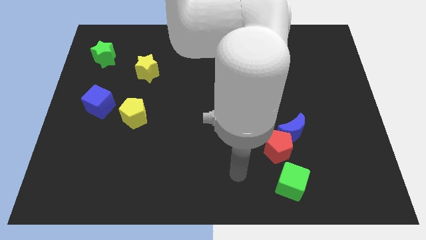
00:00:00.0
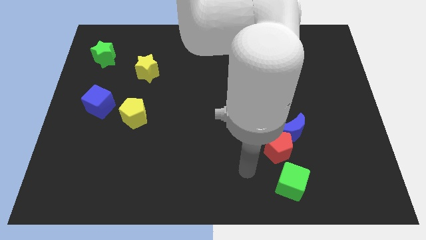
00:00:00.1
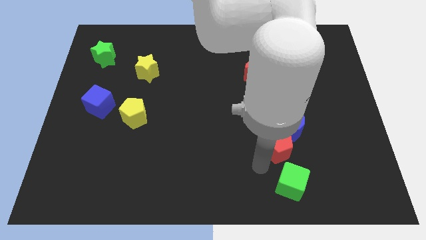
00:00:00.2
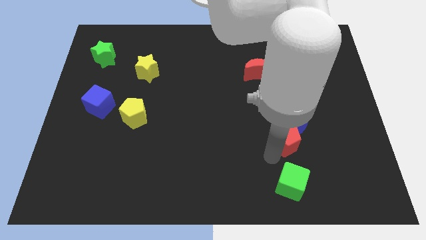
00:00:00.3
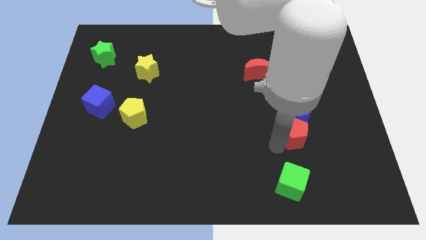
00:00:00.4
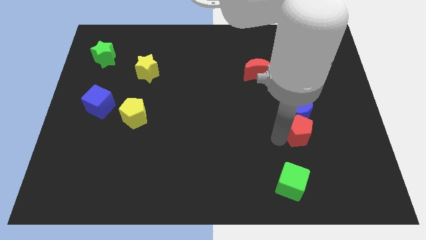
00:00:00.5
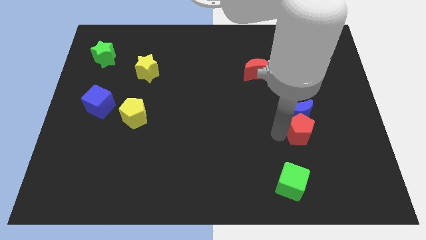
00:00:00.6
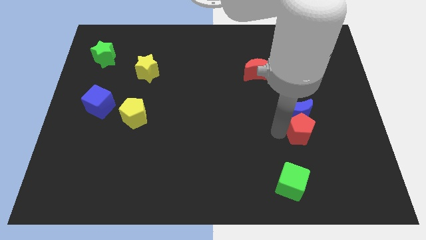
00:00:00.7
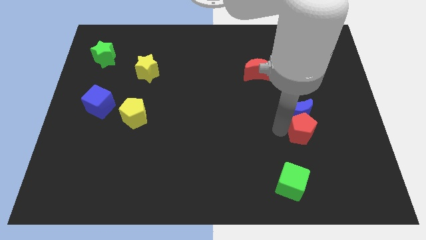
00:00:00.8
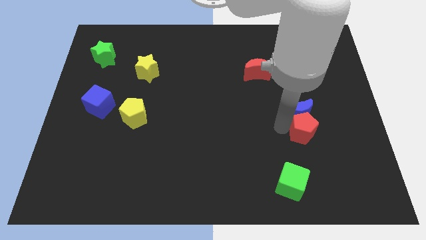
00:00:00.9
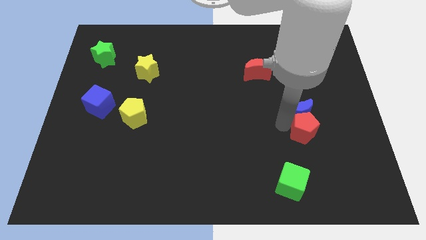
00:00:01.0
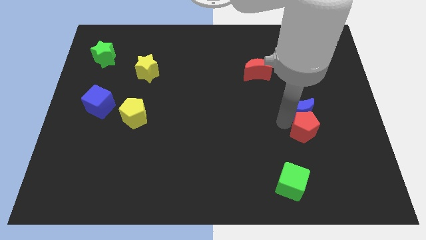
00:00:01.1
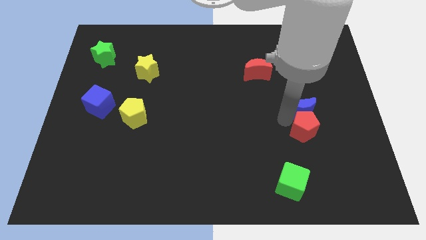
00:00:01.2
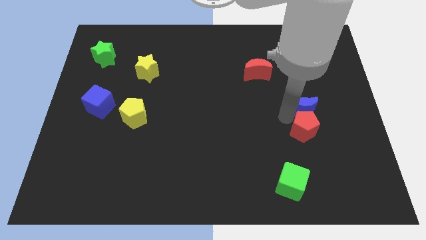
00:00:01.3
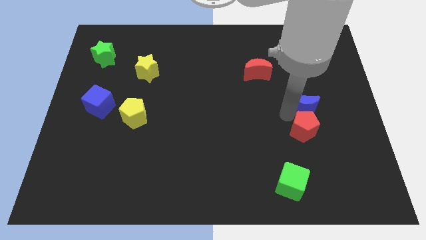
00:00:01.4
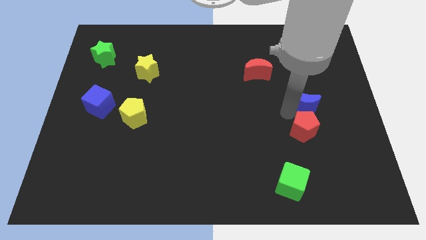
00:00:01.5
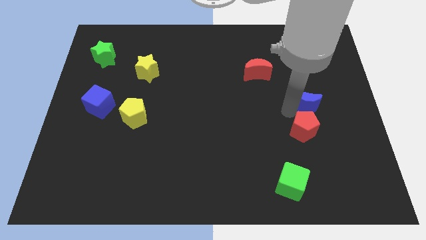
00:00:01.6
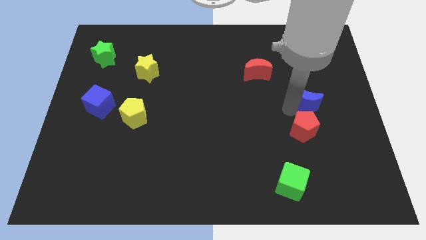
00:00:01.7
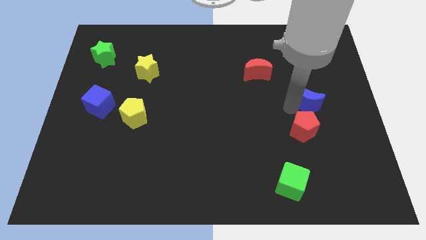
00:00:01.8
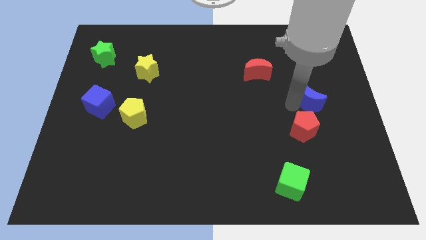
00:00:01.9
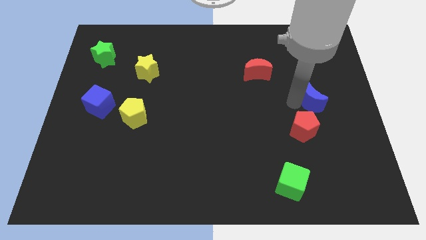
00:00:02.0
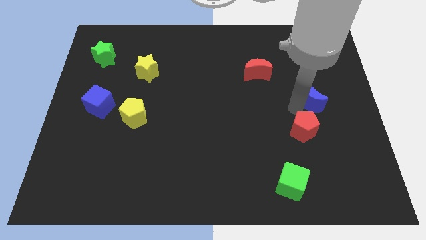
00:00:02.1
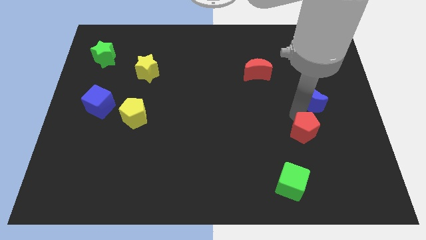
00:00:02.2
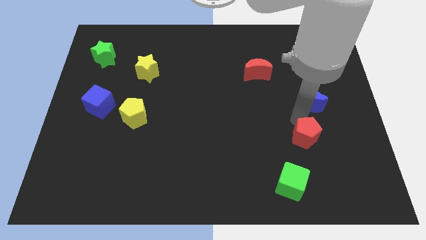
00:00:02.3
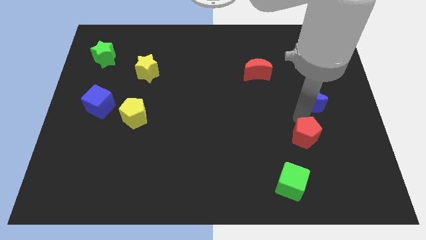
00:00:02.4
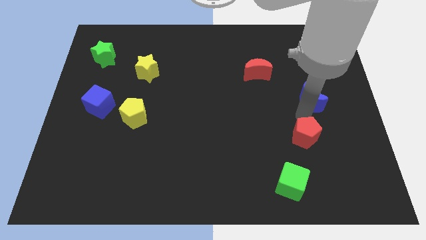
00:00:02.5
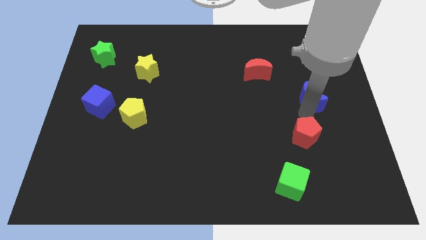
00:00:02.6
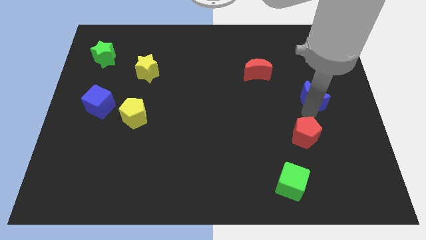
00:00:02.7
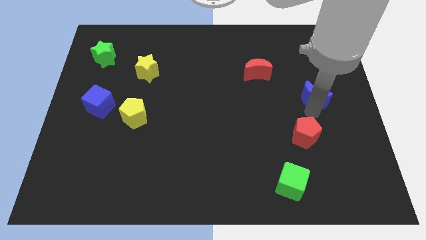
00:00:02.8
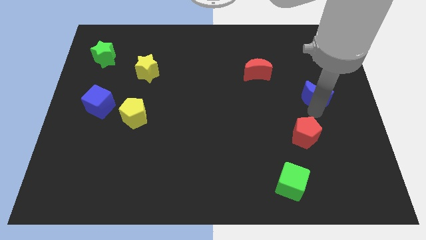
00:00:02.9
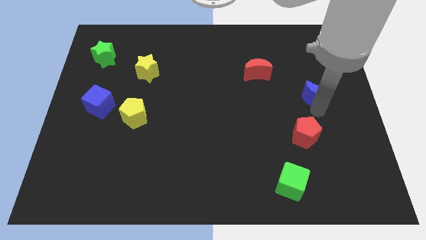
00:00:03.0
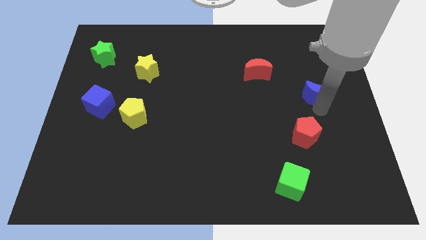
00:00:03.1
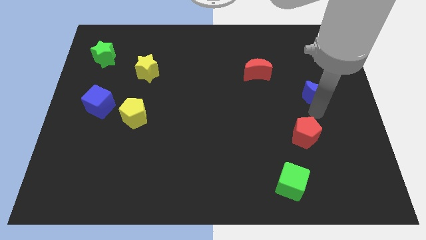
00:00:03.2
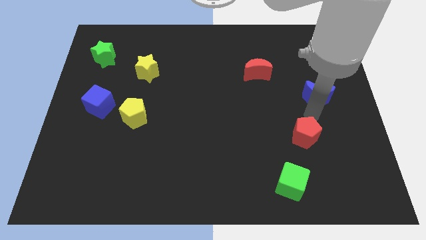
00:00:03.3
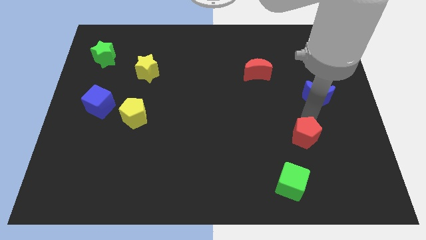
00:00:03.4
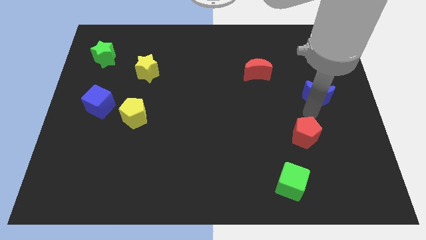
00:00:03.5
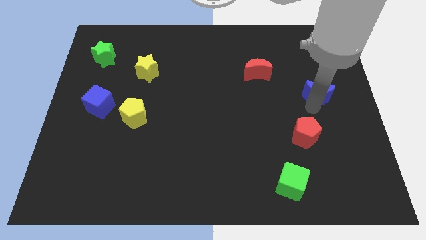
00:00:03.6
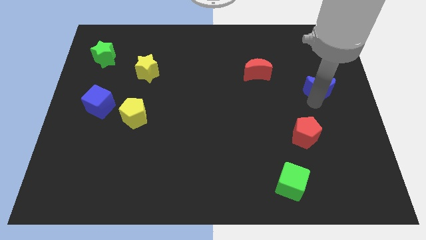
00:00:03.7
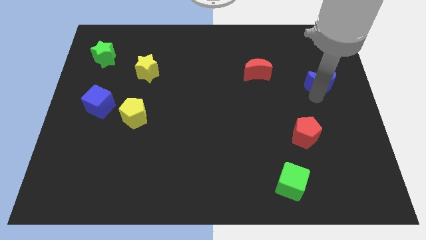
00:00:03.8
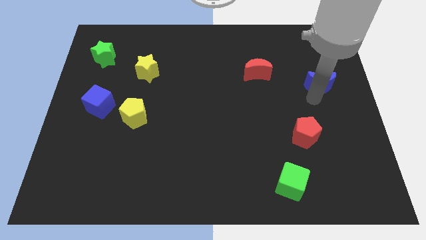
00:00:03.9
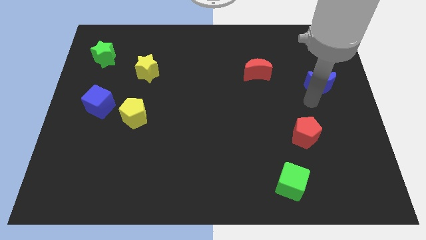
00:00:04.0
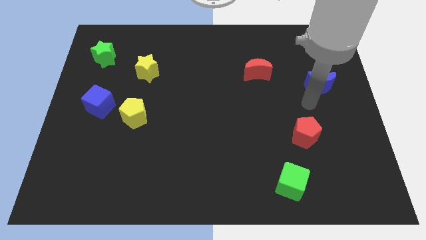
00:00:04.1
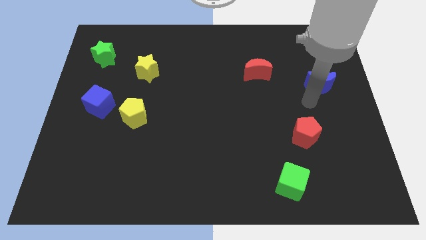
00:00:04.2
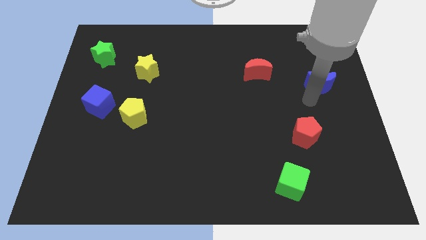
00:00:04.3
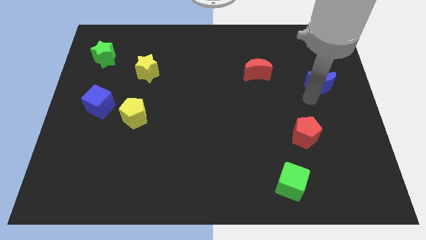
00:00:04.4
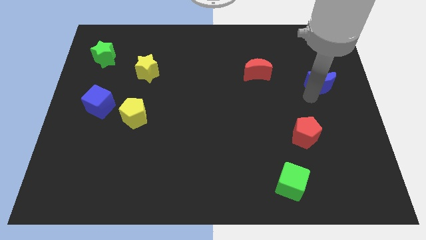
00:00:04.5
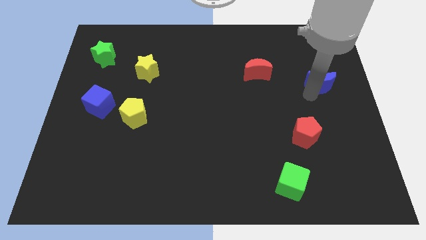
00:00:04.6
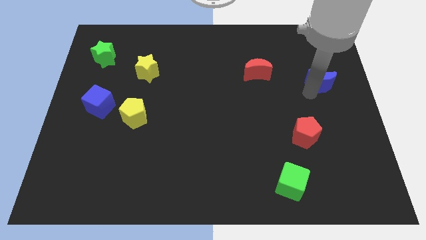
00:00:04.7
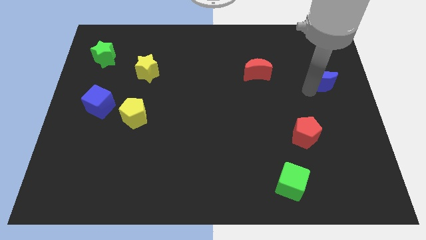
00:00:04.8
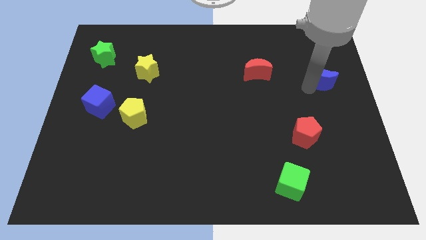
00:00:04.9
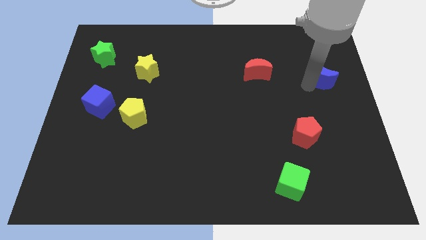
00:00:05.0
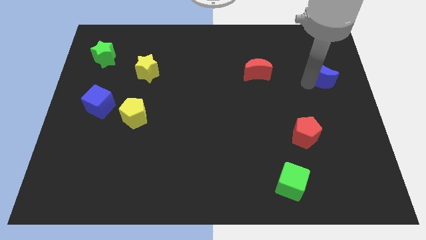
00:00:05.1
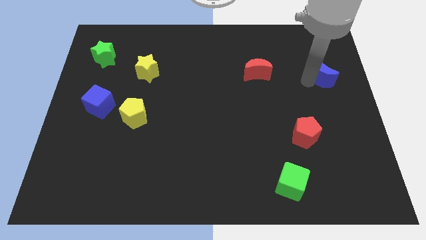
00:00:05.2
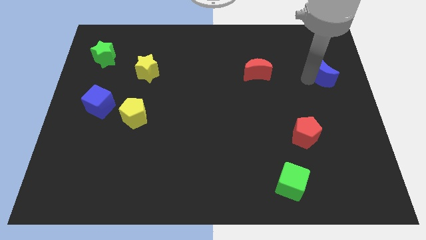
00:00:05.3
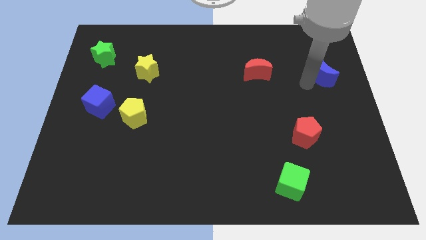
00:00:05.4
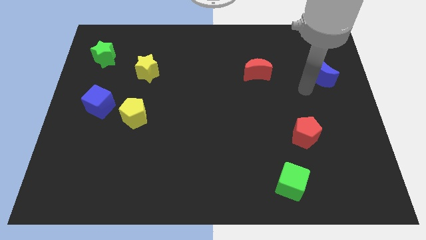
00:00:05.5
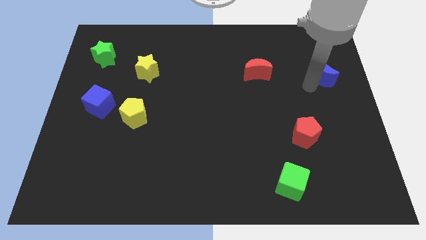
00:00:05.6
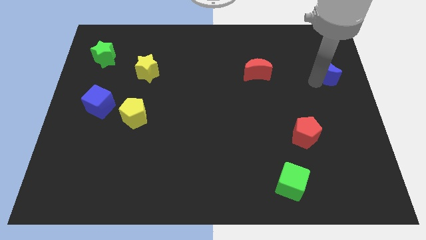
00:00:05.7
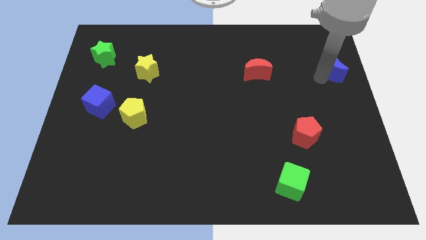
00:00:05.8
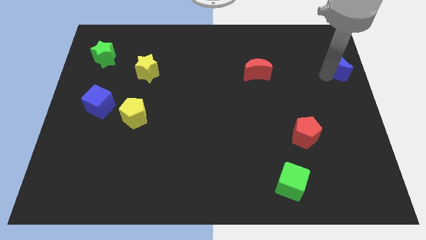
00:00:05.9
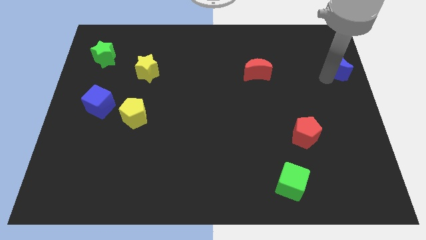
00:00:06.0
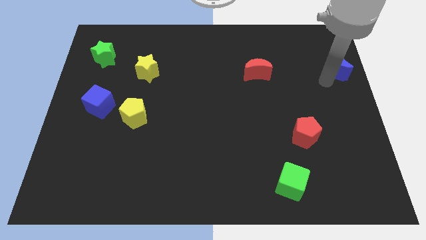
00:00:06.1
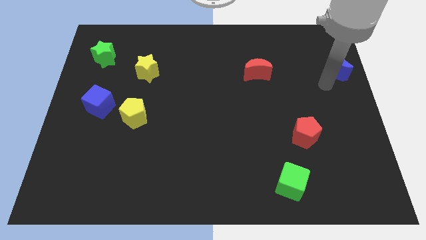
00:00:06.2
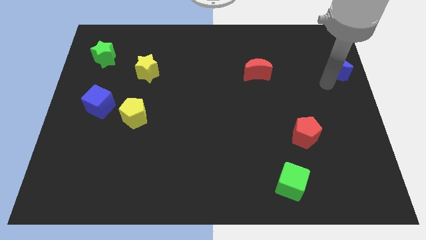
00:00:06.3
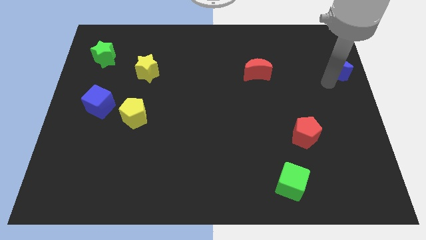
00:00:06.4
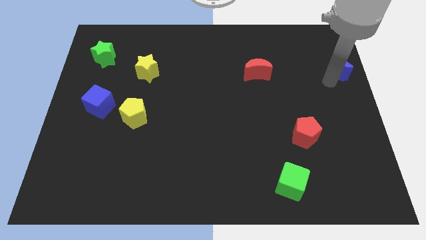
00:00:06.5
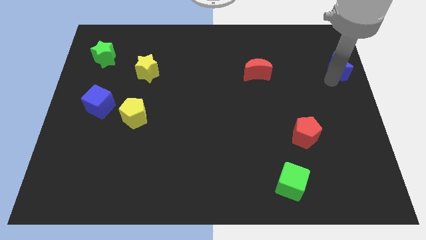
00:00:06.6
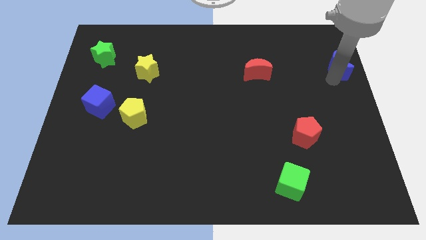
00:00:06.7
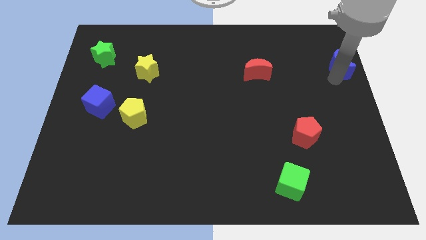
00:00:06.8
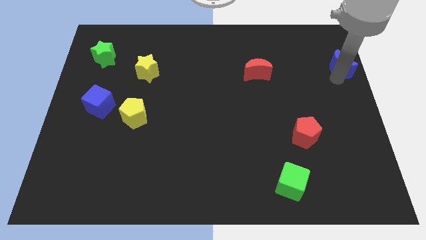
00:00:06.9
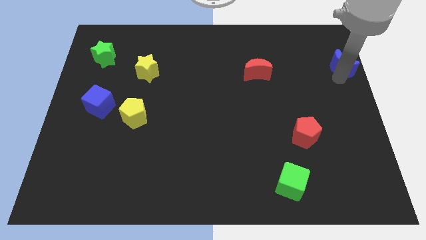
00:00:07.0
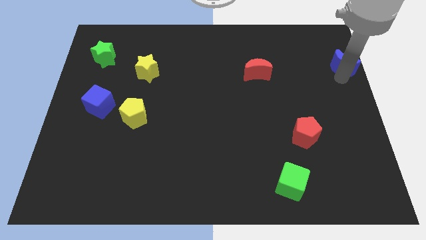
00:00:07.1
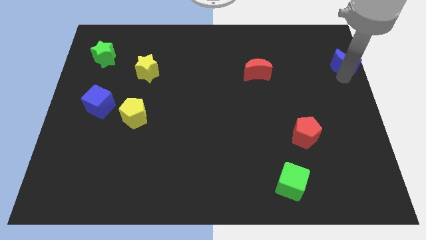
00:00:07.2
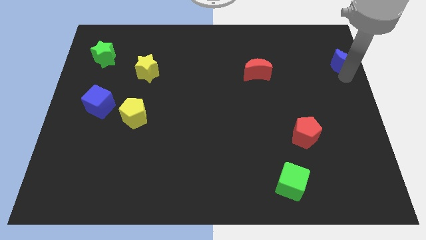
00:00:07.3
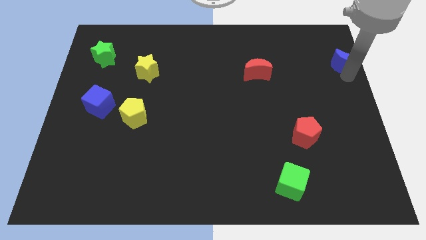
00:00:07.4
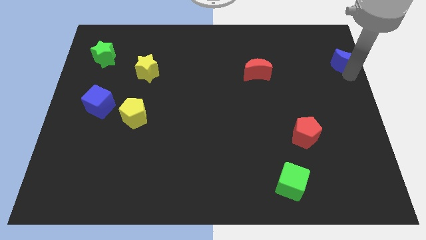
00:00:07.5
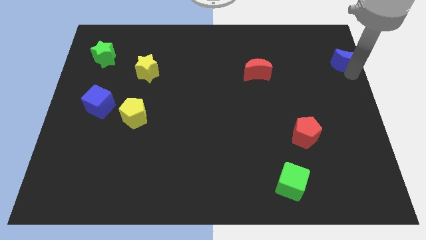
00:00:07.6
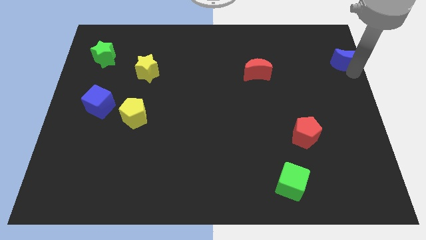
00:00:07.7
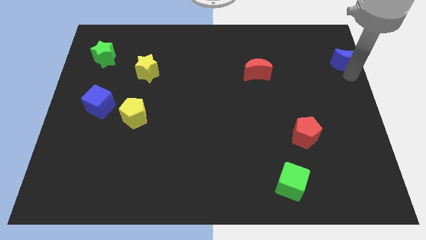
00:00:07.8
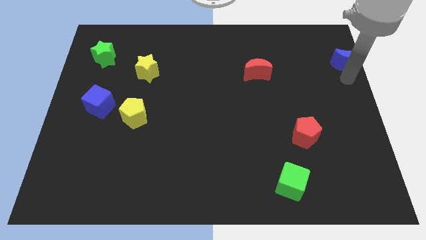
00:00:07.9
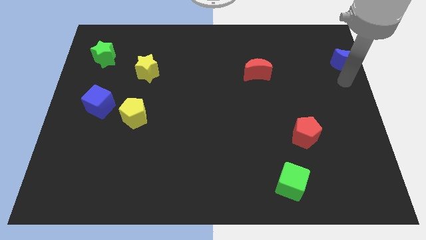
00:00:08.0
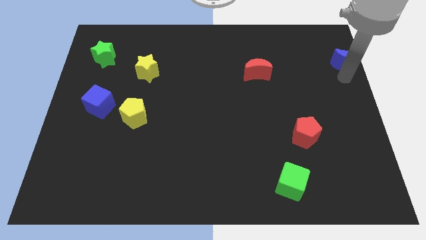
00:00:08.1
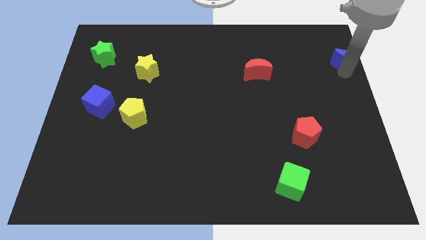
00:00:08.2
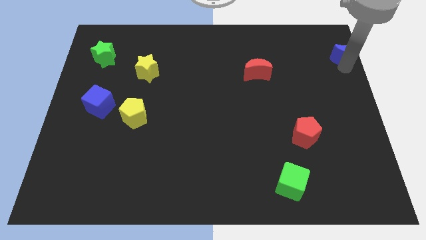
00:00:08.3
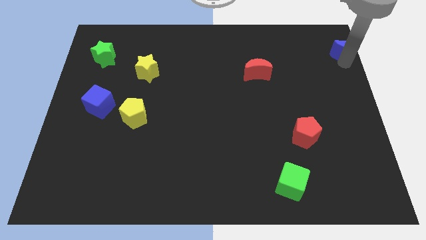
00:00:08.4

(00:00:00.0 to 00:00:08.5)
push the blue moon to the upper right corner

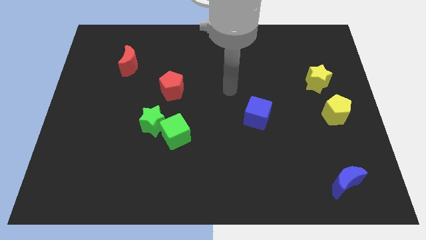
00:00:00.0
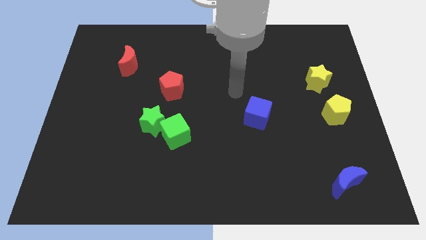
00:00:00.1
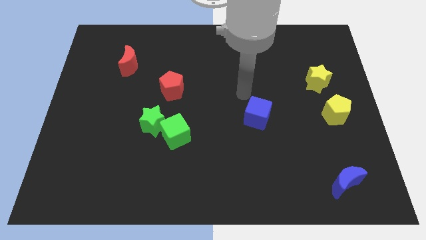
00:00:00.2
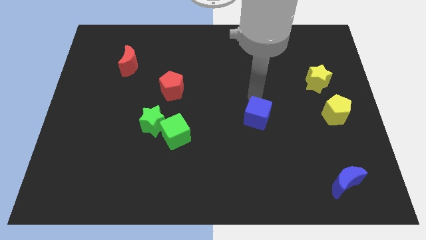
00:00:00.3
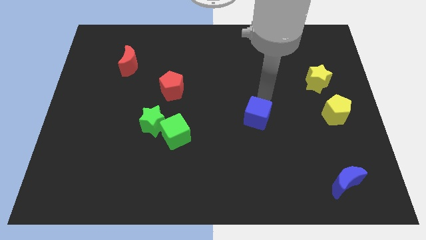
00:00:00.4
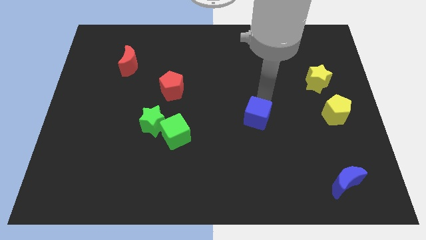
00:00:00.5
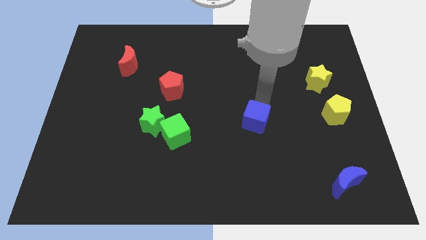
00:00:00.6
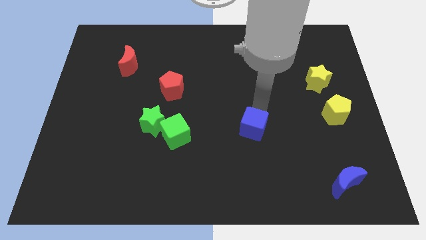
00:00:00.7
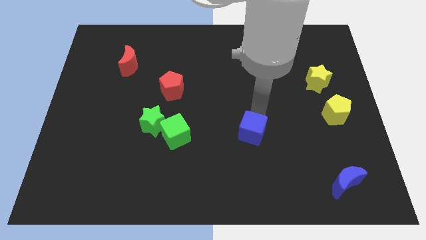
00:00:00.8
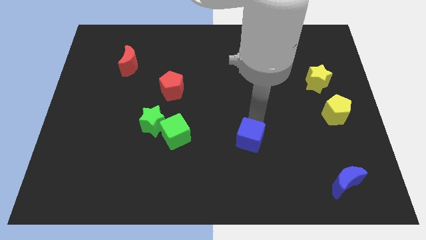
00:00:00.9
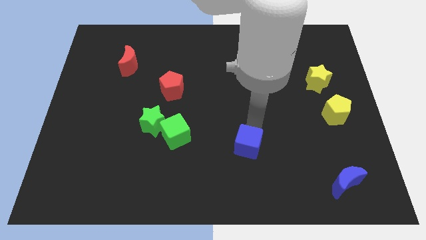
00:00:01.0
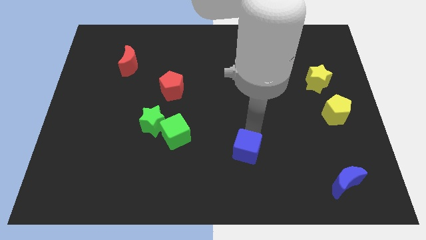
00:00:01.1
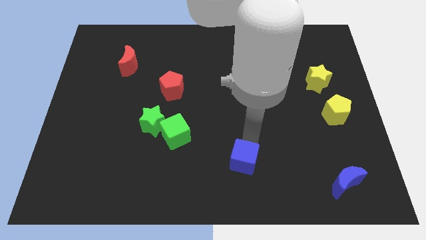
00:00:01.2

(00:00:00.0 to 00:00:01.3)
slide the blue cube to the bottom side
